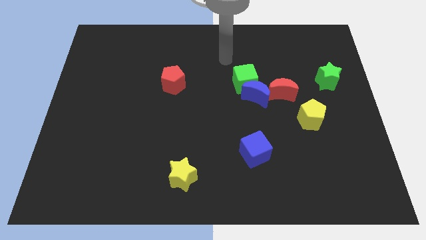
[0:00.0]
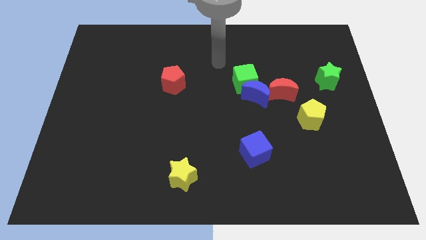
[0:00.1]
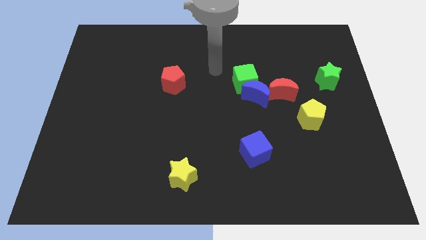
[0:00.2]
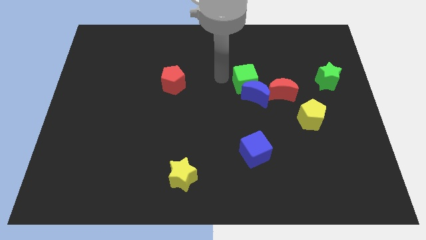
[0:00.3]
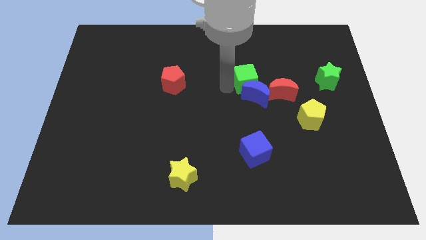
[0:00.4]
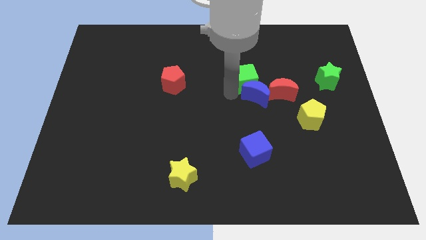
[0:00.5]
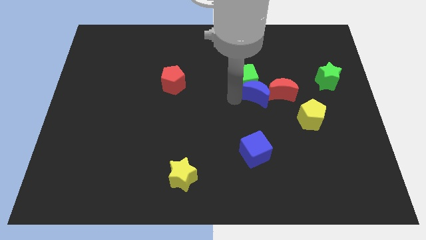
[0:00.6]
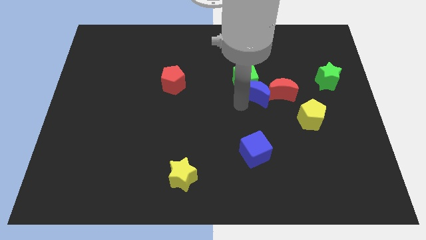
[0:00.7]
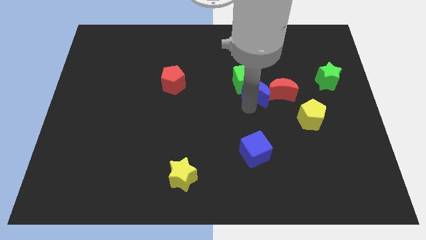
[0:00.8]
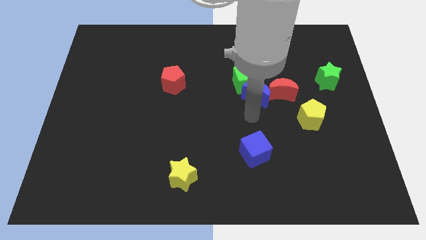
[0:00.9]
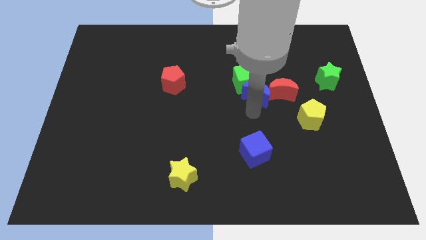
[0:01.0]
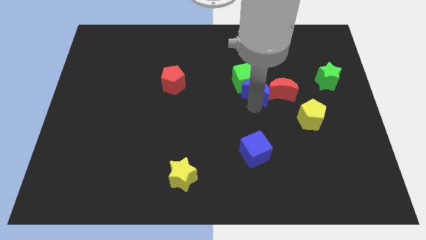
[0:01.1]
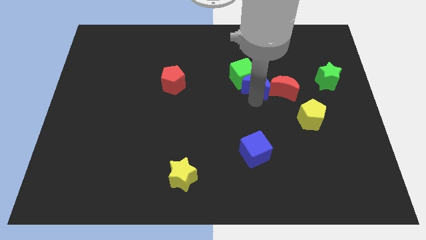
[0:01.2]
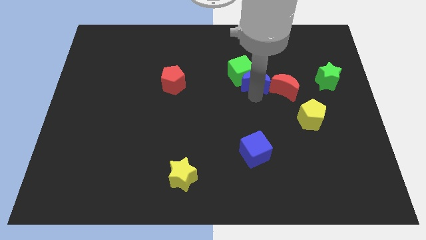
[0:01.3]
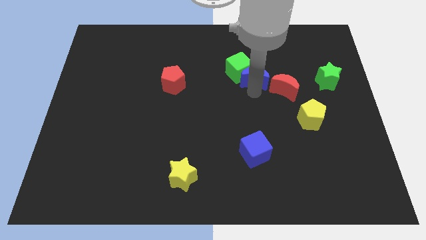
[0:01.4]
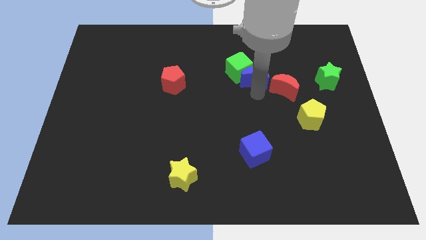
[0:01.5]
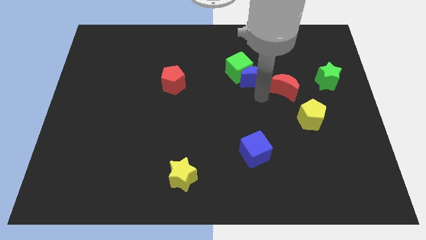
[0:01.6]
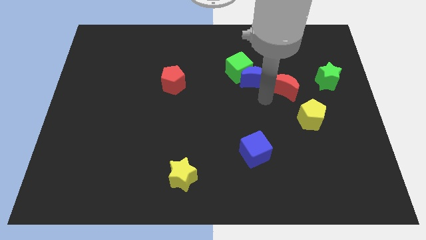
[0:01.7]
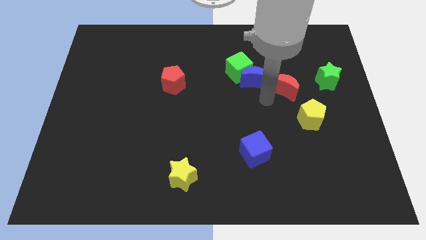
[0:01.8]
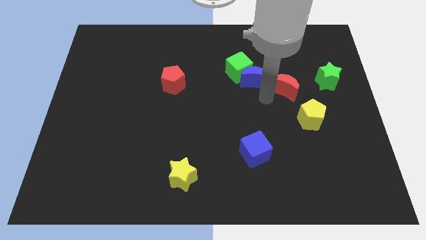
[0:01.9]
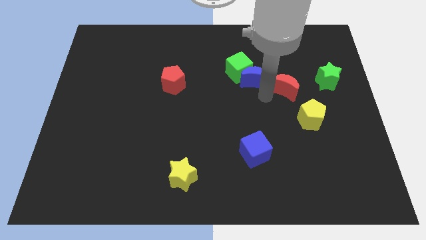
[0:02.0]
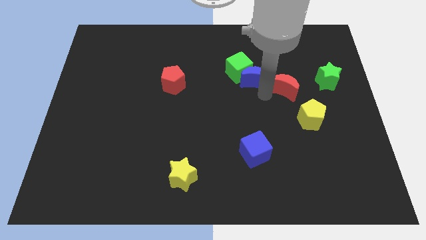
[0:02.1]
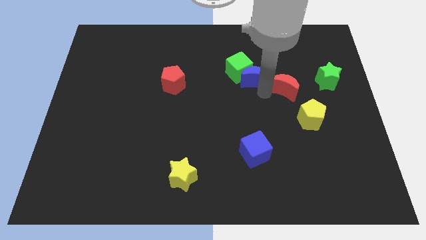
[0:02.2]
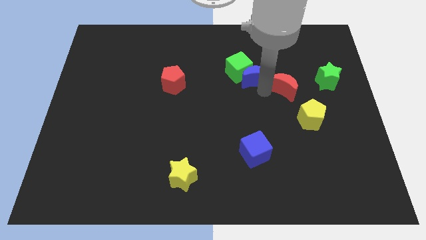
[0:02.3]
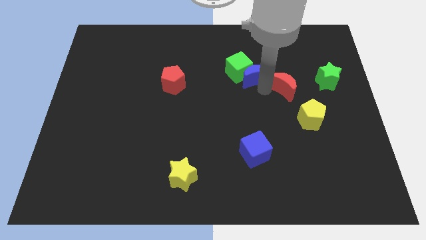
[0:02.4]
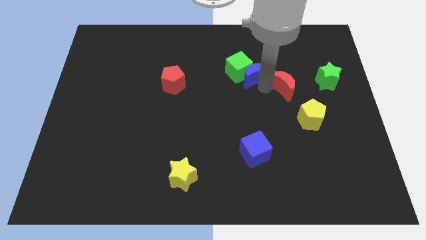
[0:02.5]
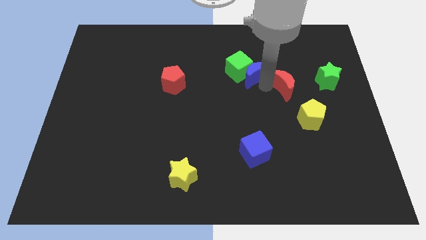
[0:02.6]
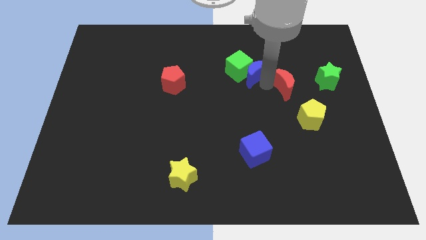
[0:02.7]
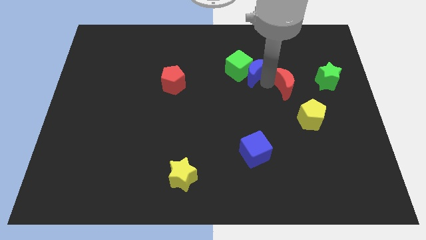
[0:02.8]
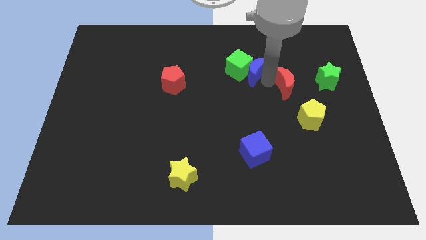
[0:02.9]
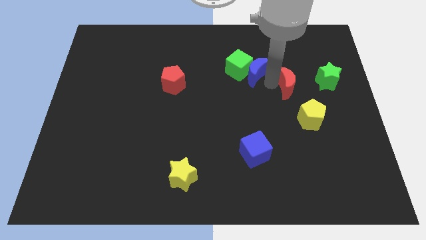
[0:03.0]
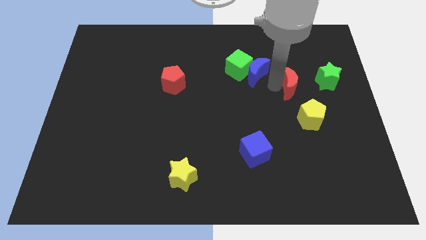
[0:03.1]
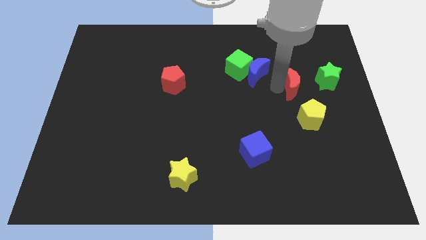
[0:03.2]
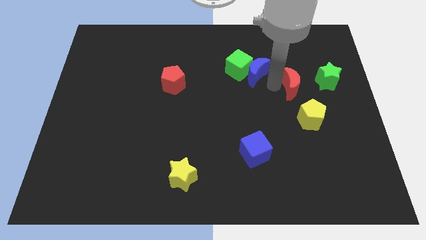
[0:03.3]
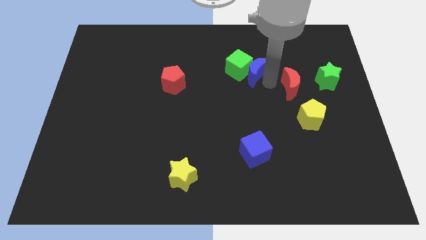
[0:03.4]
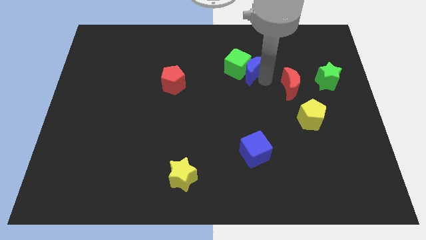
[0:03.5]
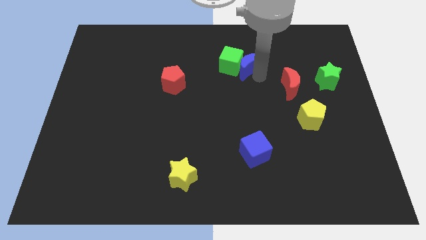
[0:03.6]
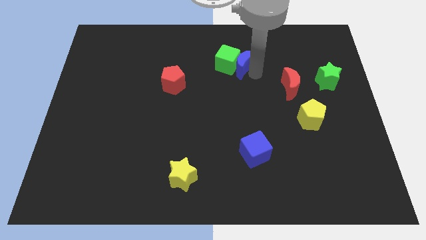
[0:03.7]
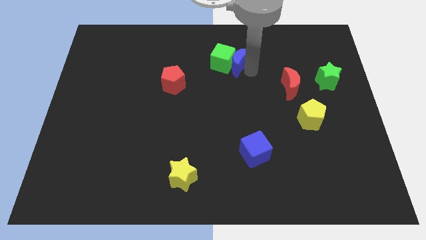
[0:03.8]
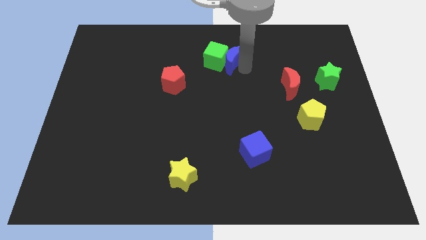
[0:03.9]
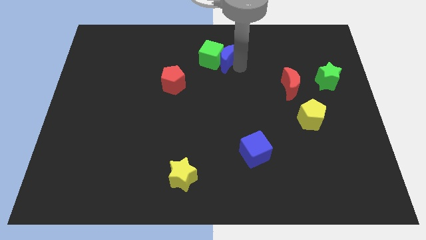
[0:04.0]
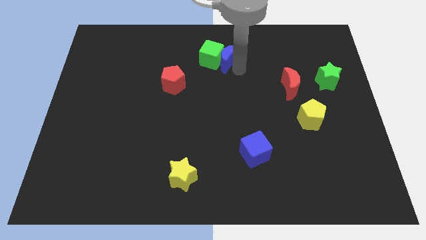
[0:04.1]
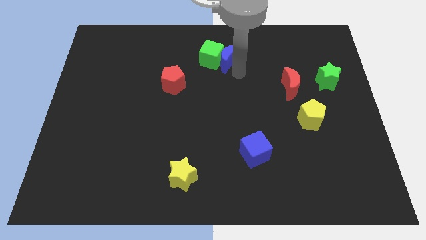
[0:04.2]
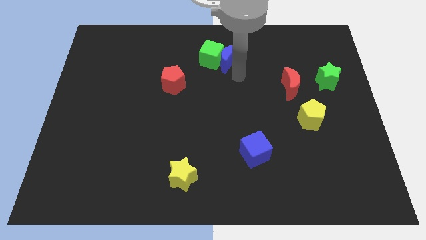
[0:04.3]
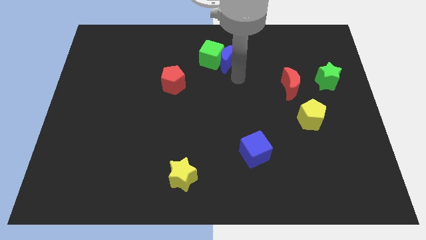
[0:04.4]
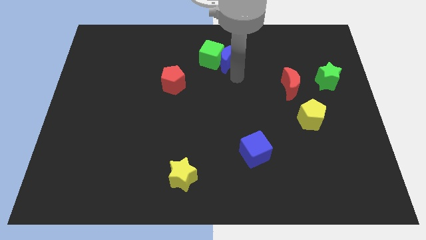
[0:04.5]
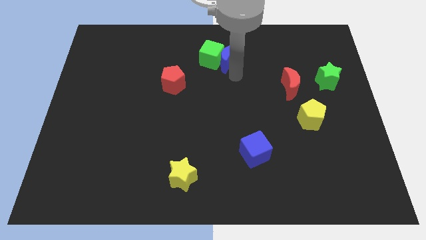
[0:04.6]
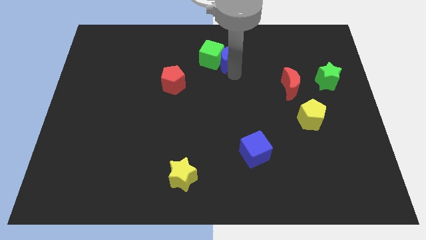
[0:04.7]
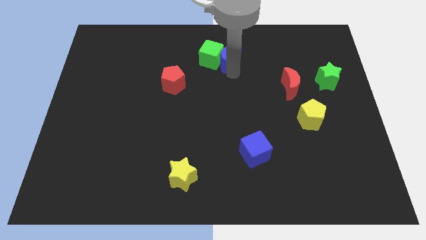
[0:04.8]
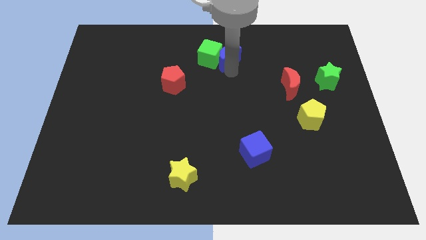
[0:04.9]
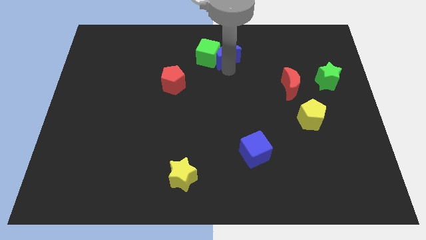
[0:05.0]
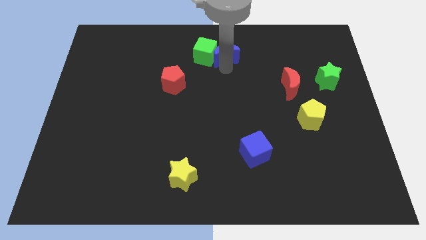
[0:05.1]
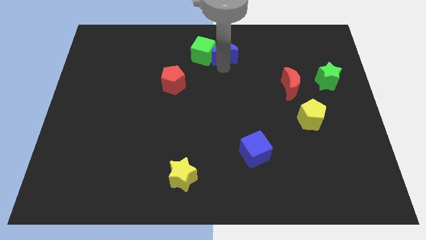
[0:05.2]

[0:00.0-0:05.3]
slide the blue moon to the towards your base

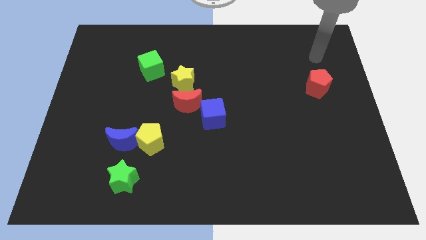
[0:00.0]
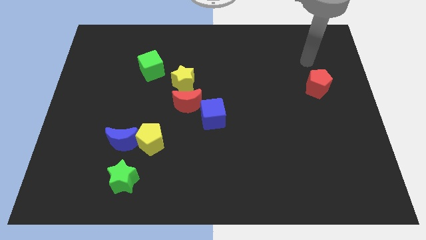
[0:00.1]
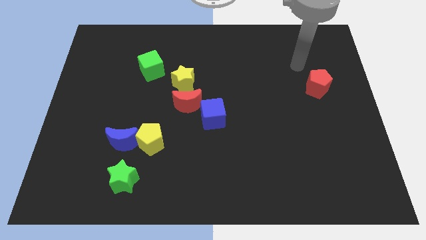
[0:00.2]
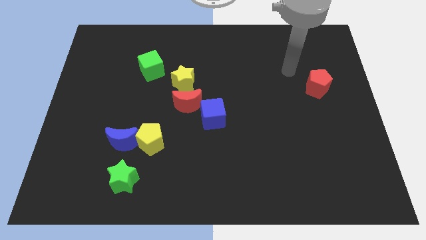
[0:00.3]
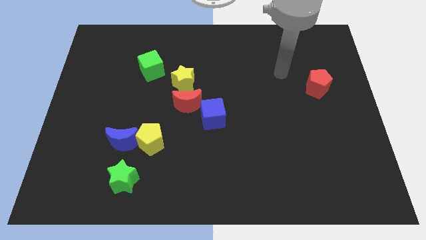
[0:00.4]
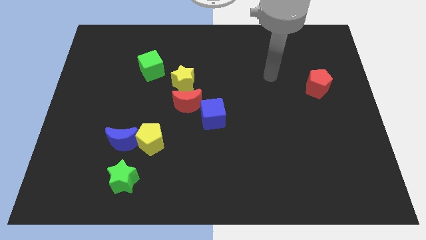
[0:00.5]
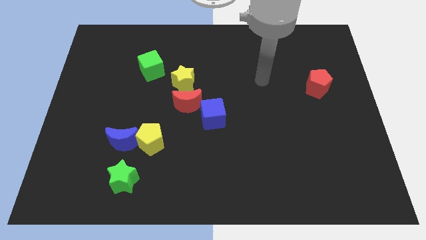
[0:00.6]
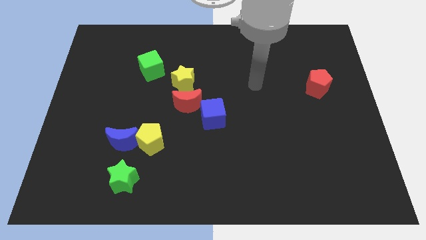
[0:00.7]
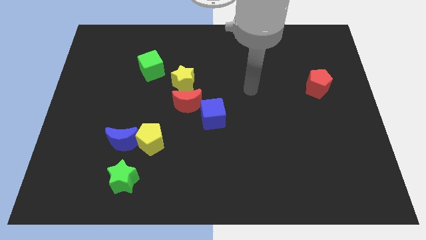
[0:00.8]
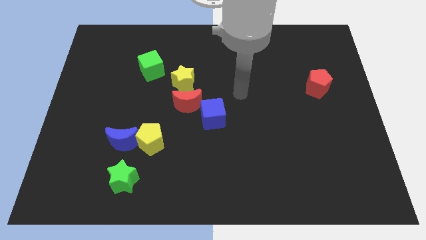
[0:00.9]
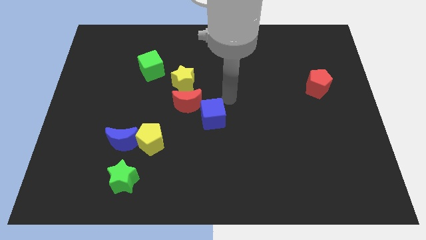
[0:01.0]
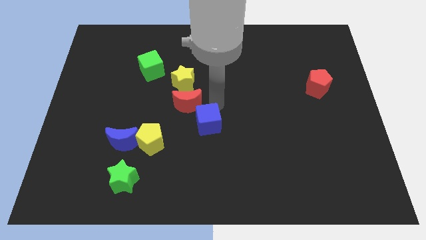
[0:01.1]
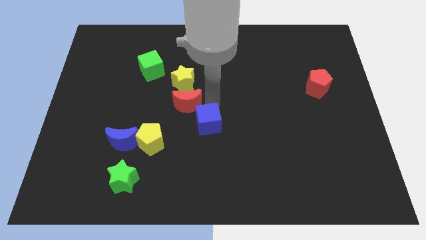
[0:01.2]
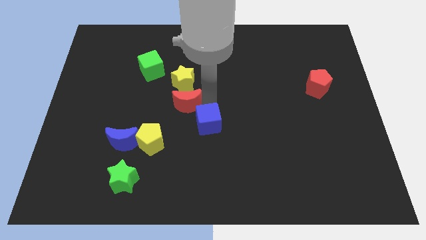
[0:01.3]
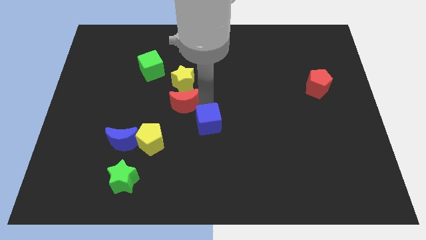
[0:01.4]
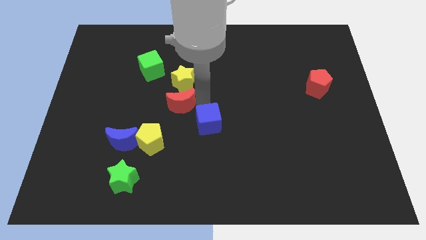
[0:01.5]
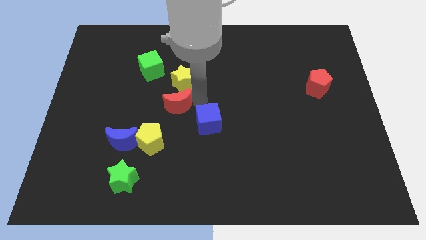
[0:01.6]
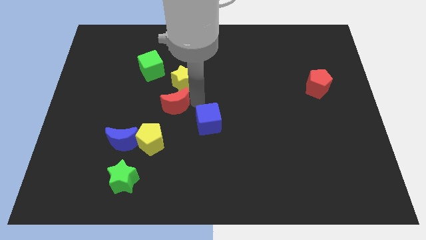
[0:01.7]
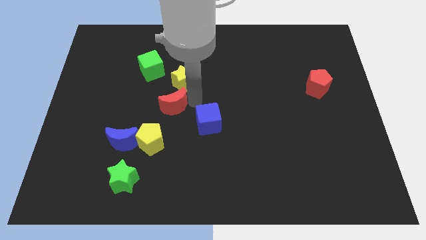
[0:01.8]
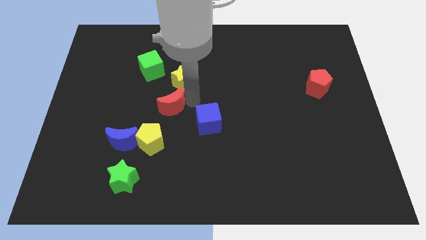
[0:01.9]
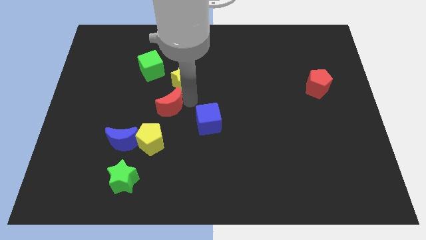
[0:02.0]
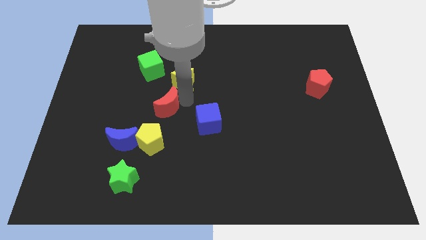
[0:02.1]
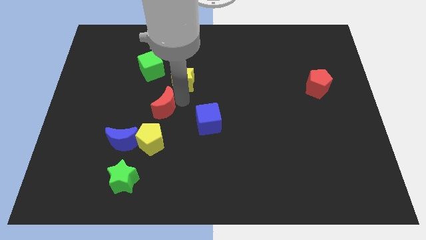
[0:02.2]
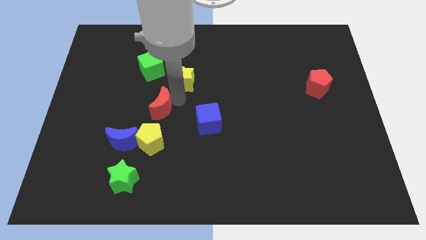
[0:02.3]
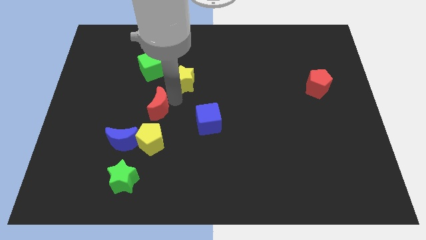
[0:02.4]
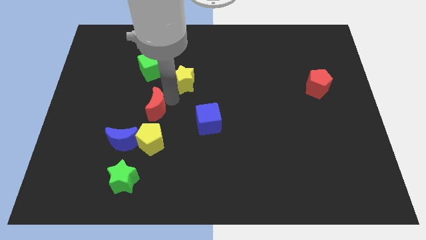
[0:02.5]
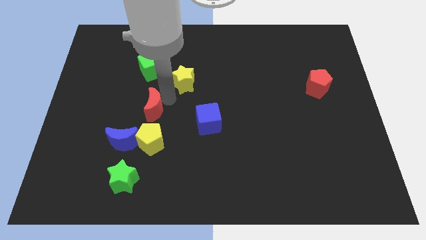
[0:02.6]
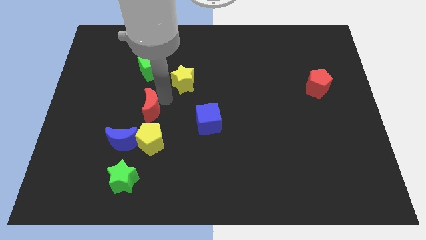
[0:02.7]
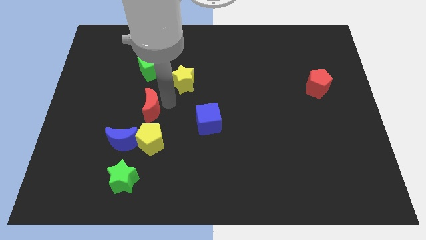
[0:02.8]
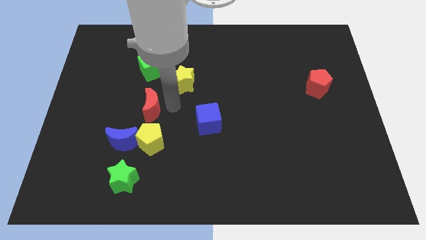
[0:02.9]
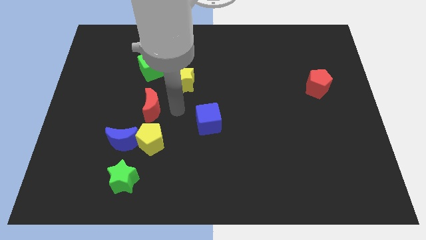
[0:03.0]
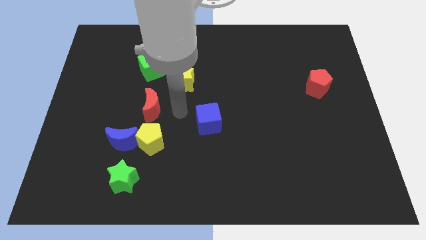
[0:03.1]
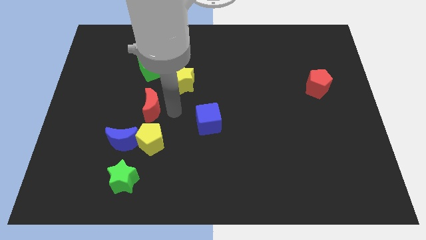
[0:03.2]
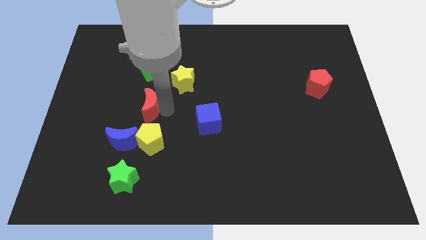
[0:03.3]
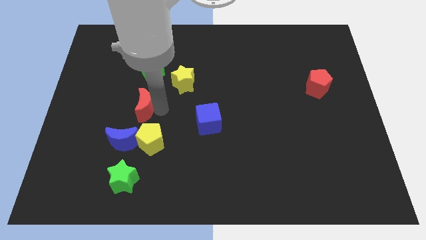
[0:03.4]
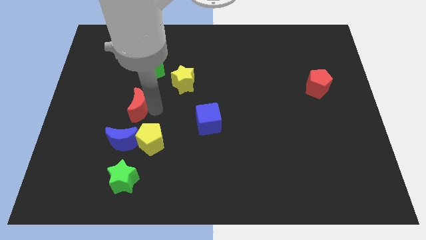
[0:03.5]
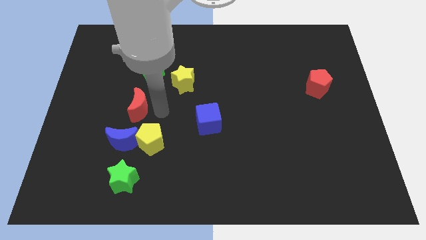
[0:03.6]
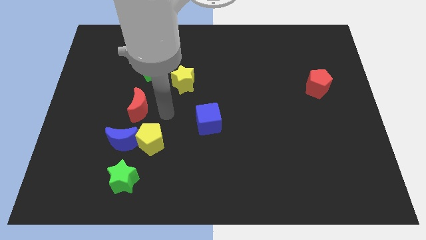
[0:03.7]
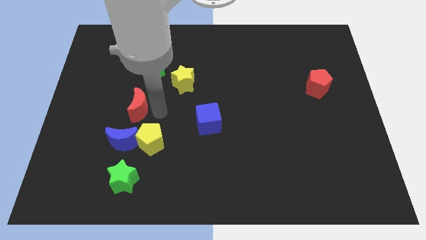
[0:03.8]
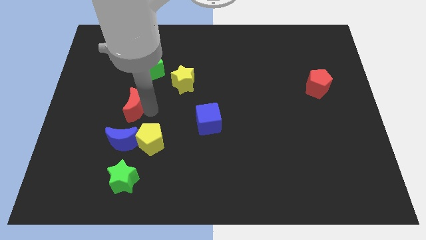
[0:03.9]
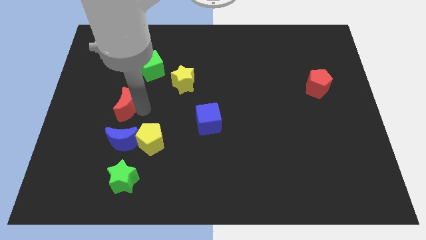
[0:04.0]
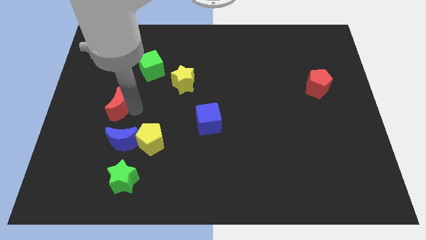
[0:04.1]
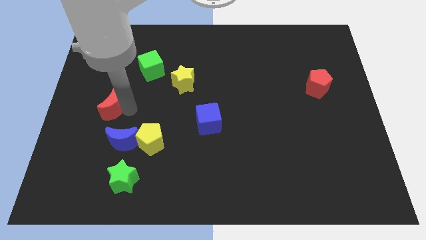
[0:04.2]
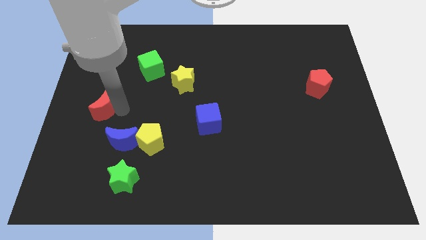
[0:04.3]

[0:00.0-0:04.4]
push the red moon to the left side of the board
